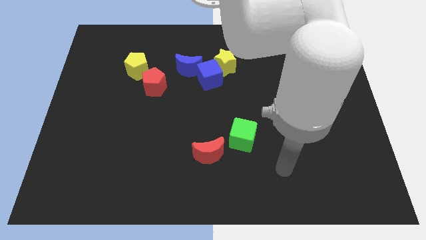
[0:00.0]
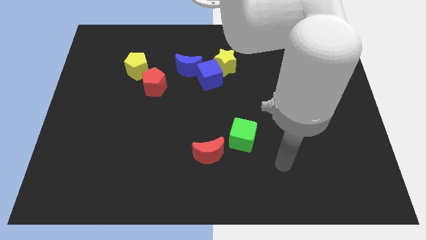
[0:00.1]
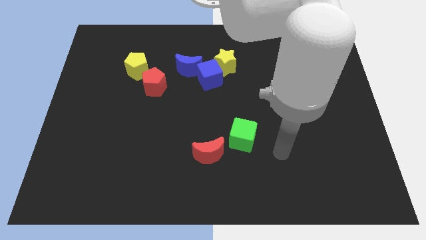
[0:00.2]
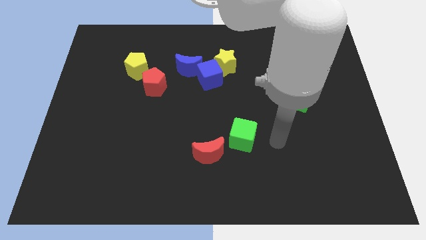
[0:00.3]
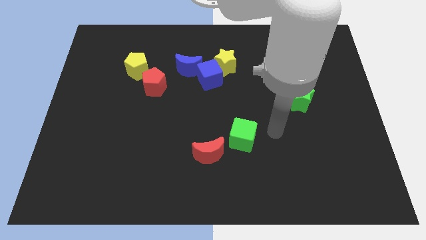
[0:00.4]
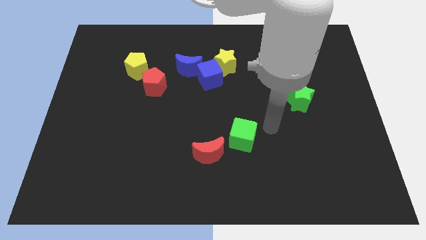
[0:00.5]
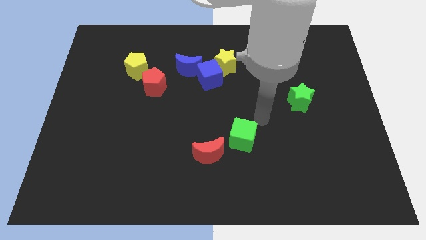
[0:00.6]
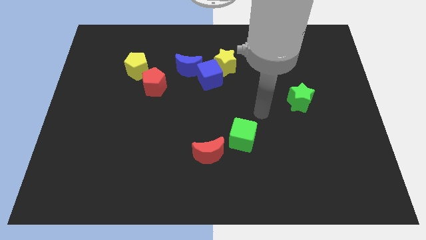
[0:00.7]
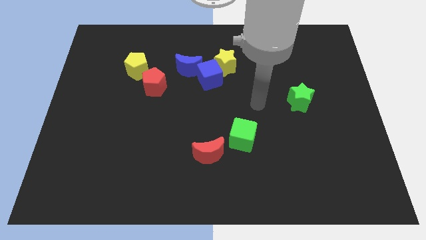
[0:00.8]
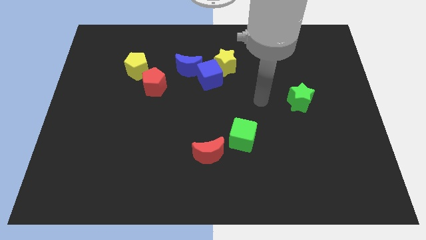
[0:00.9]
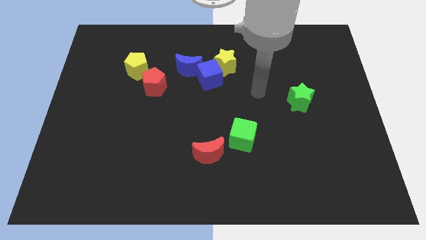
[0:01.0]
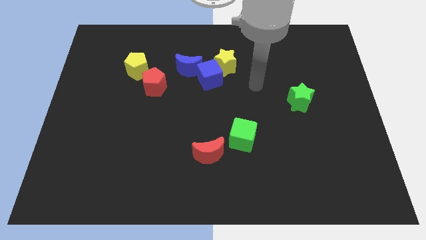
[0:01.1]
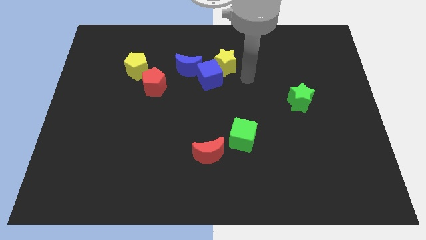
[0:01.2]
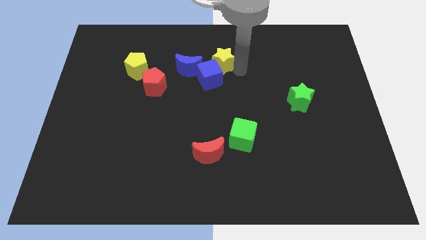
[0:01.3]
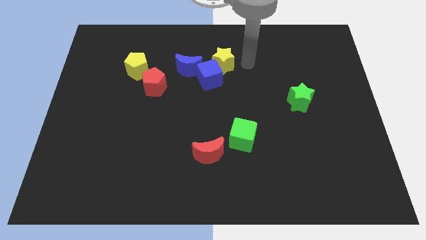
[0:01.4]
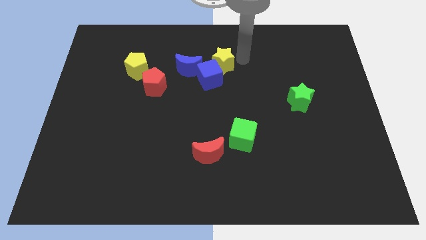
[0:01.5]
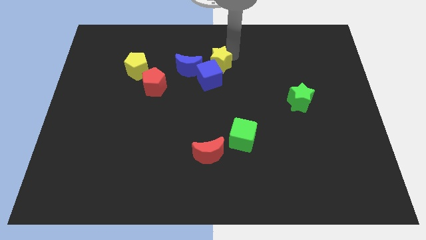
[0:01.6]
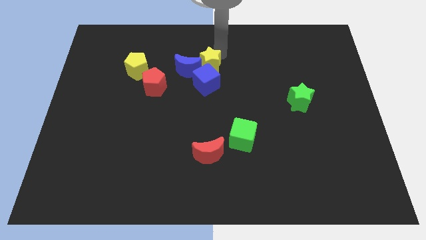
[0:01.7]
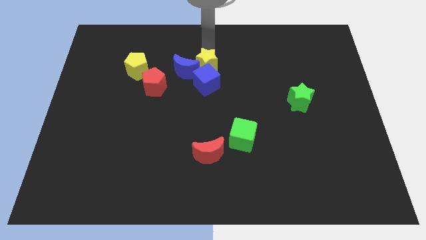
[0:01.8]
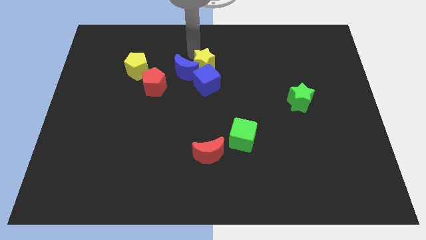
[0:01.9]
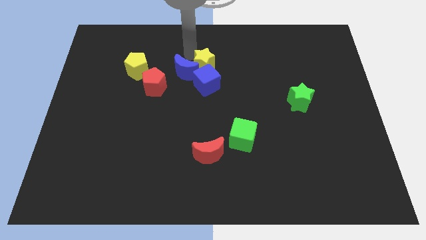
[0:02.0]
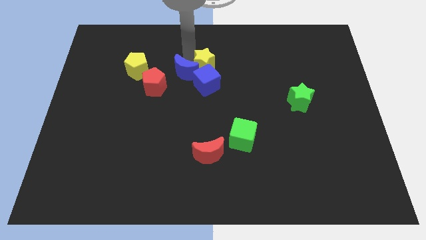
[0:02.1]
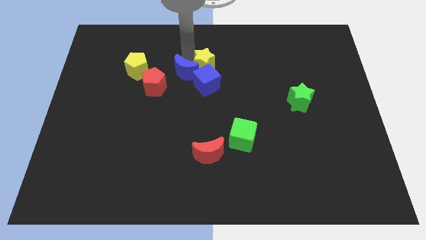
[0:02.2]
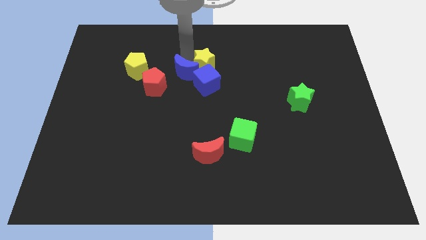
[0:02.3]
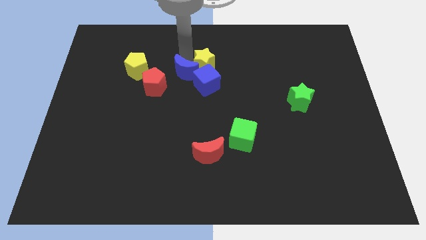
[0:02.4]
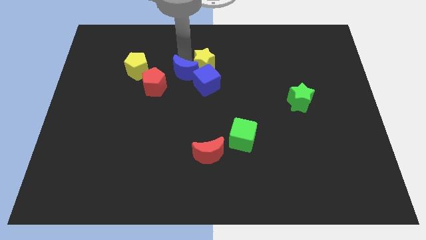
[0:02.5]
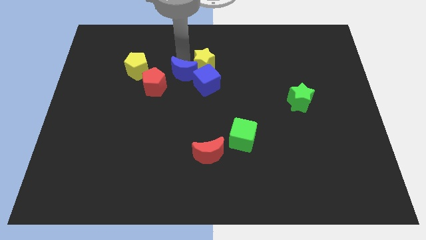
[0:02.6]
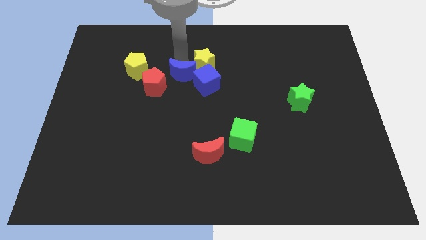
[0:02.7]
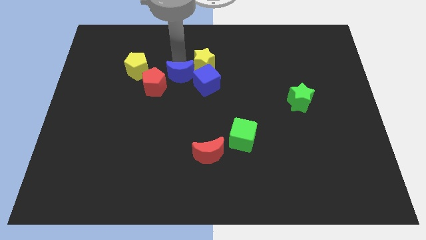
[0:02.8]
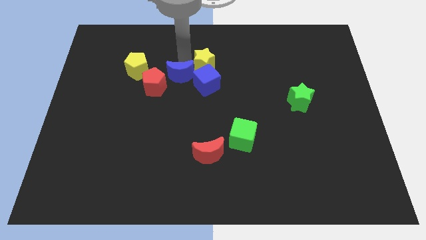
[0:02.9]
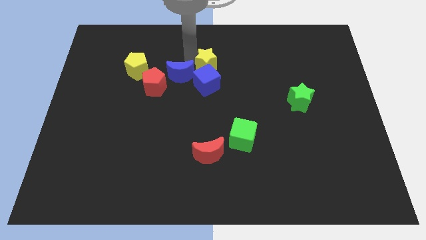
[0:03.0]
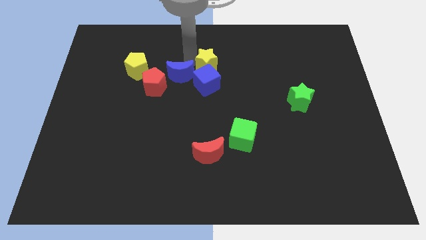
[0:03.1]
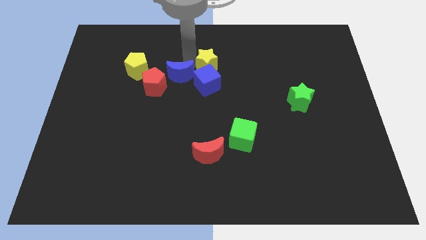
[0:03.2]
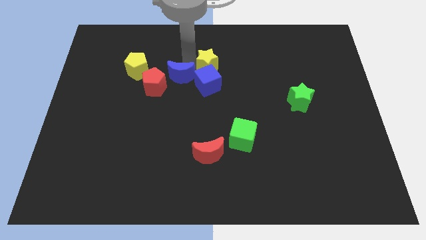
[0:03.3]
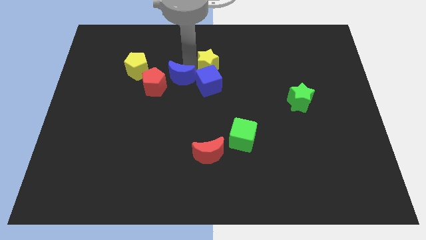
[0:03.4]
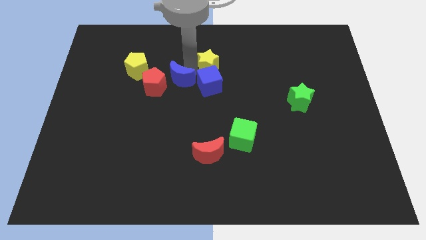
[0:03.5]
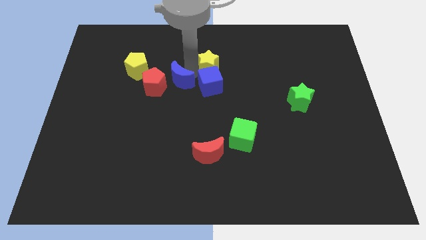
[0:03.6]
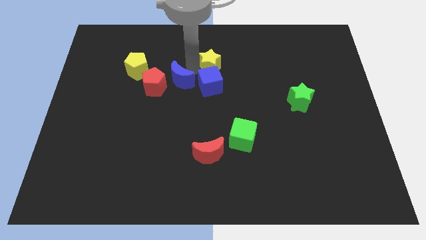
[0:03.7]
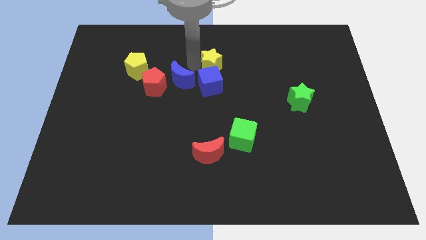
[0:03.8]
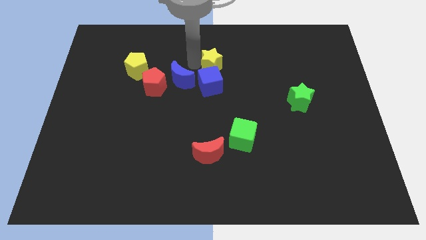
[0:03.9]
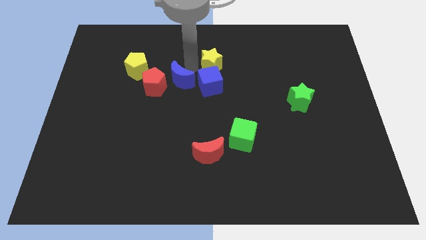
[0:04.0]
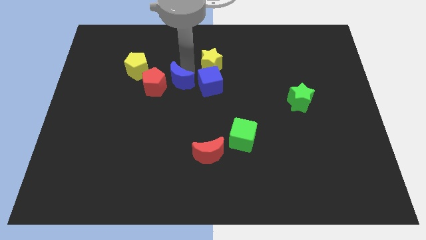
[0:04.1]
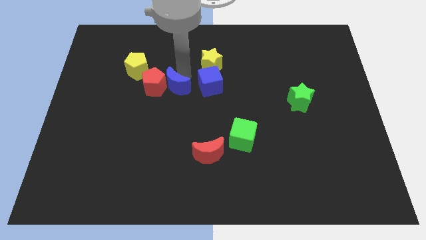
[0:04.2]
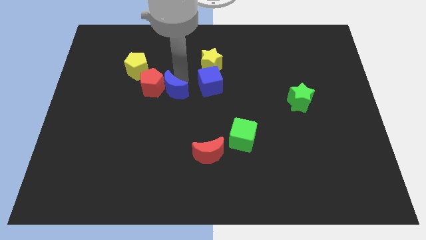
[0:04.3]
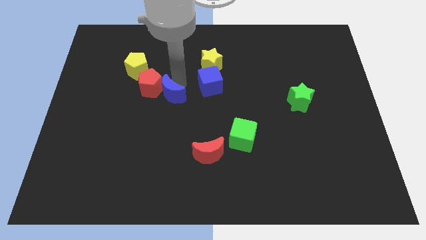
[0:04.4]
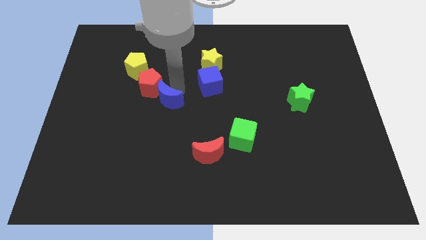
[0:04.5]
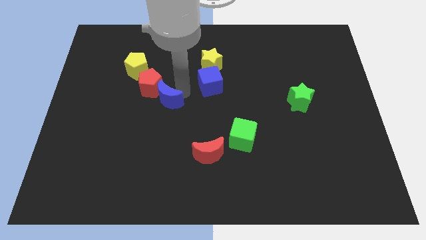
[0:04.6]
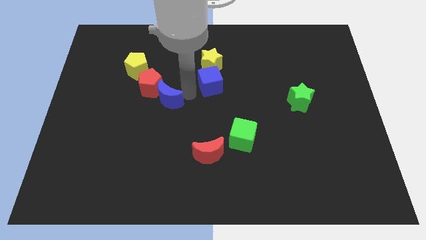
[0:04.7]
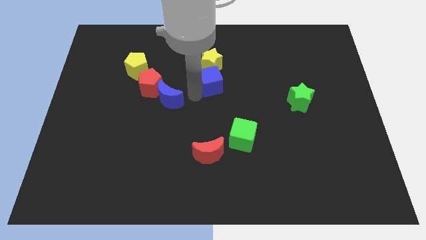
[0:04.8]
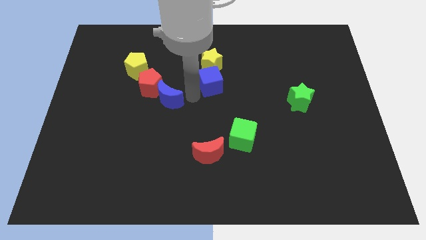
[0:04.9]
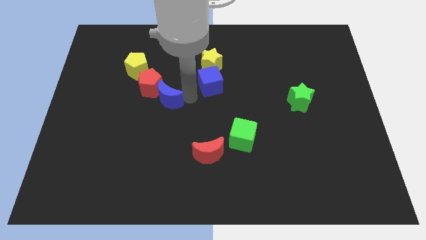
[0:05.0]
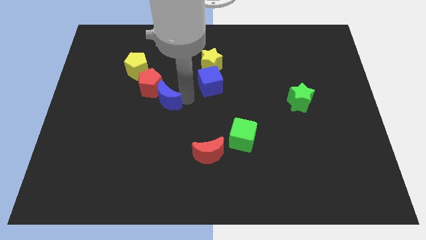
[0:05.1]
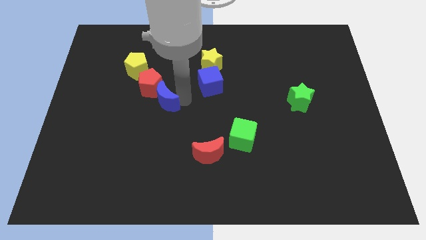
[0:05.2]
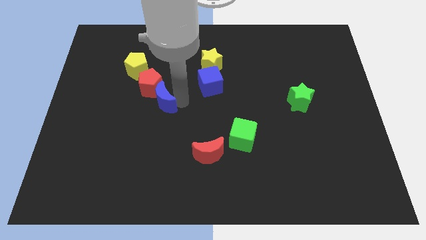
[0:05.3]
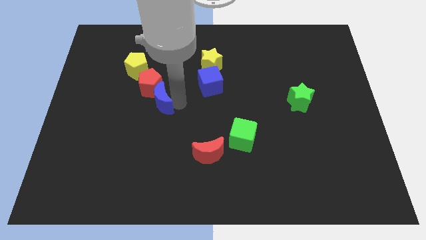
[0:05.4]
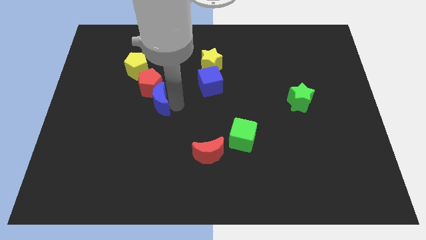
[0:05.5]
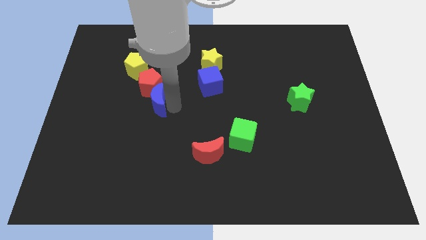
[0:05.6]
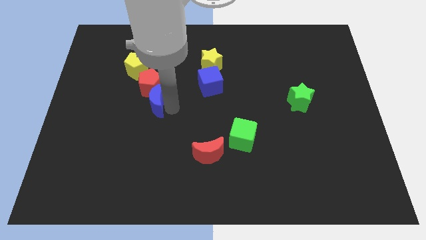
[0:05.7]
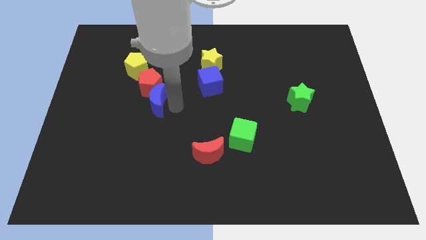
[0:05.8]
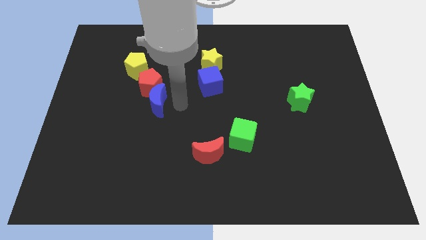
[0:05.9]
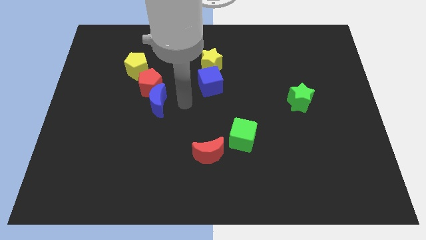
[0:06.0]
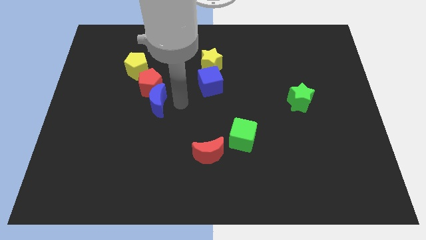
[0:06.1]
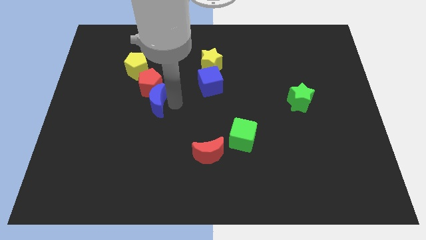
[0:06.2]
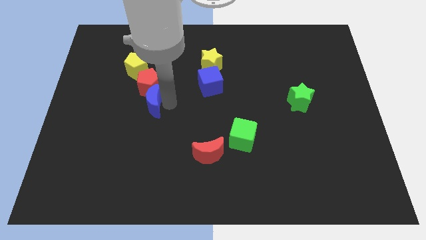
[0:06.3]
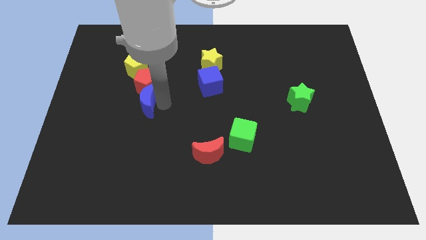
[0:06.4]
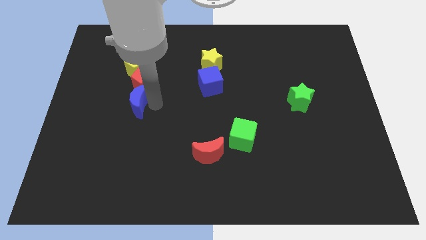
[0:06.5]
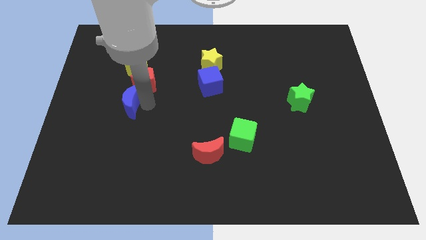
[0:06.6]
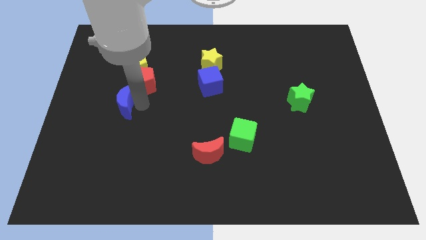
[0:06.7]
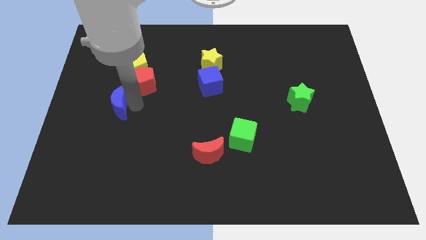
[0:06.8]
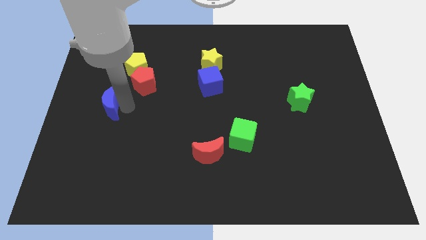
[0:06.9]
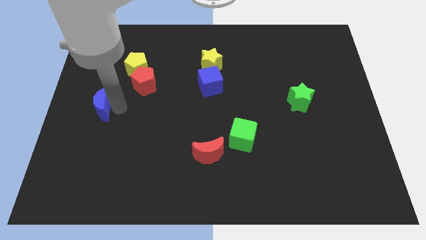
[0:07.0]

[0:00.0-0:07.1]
put the blue moon to the center left

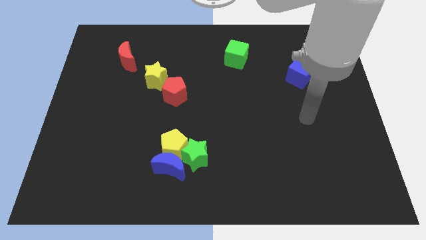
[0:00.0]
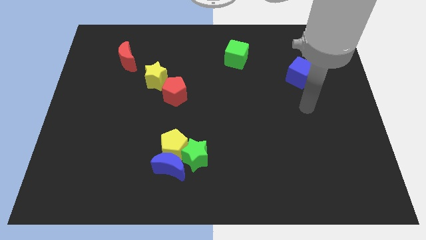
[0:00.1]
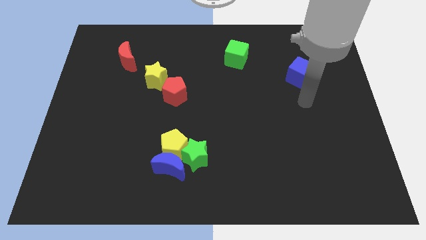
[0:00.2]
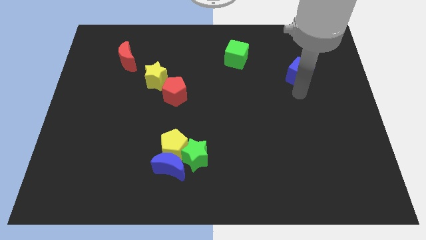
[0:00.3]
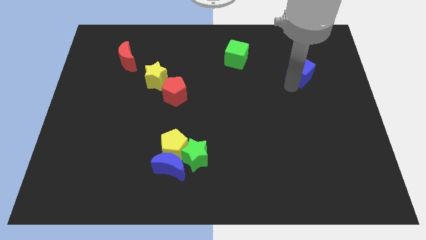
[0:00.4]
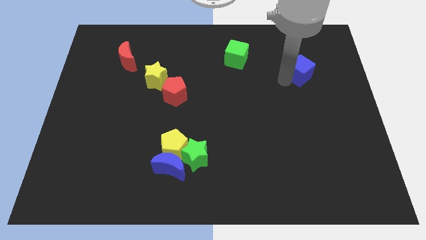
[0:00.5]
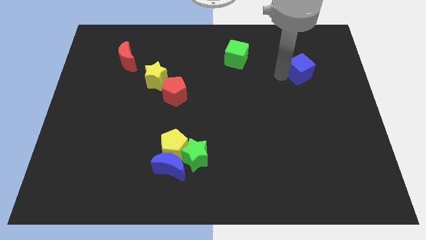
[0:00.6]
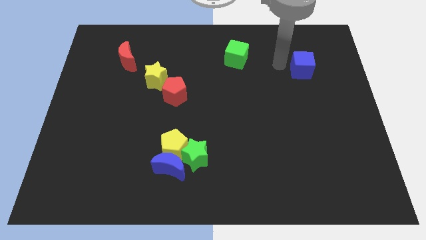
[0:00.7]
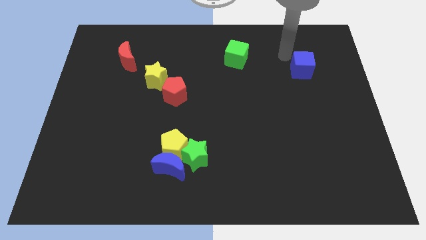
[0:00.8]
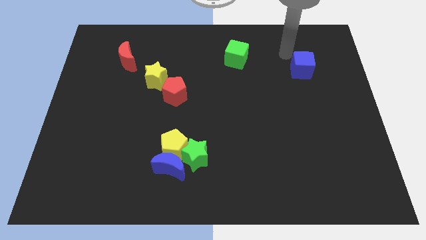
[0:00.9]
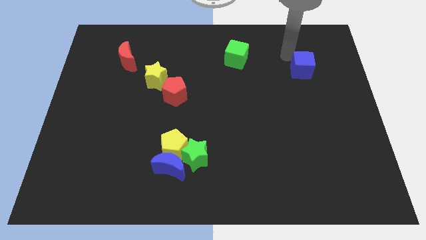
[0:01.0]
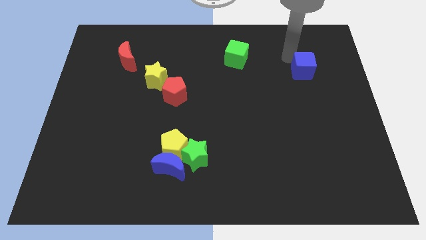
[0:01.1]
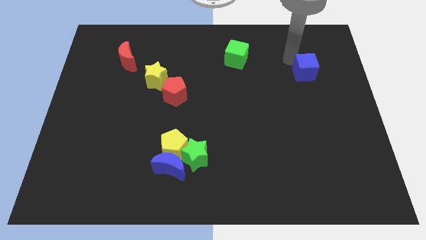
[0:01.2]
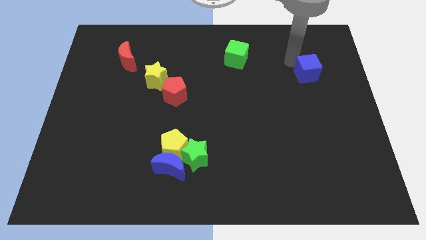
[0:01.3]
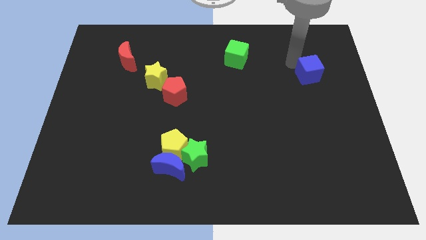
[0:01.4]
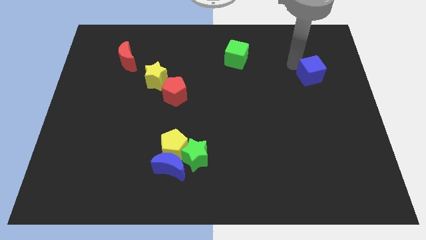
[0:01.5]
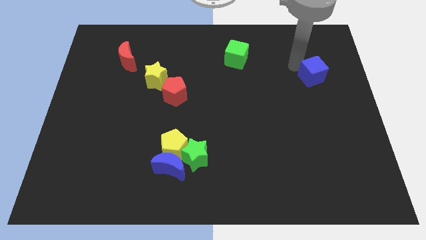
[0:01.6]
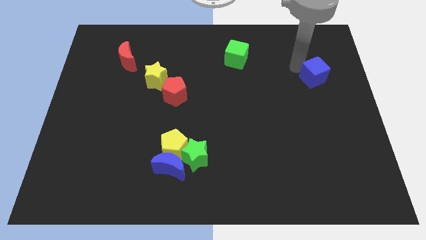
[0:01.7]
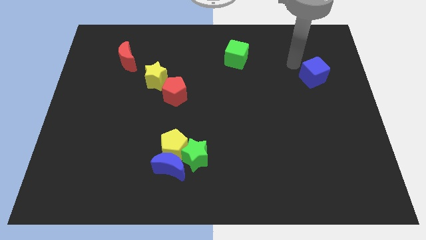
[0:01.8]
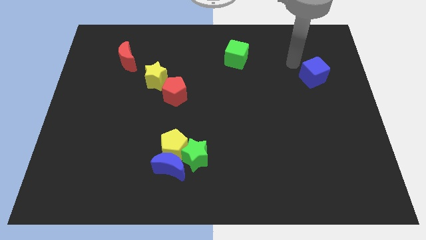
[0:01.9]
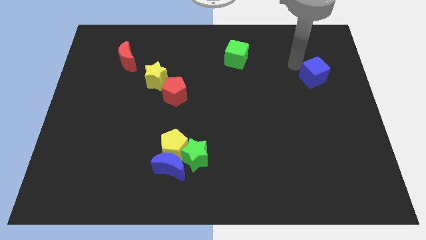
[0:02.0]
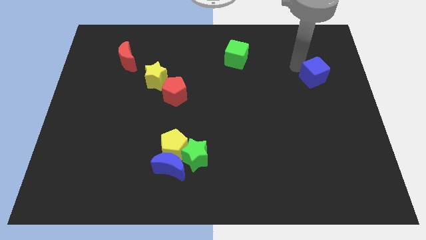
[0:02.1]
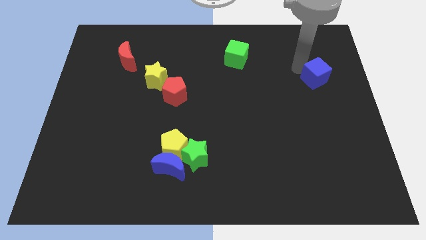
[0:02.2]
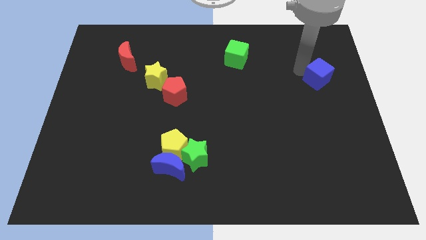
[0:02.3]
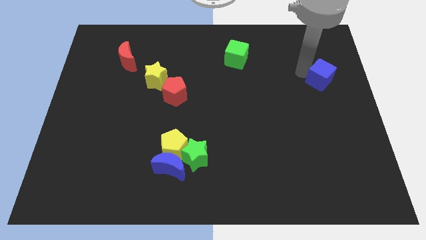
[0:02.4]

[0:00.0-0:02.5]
slide the blue cube to the right side
